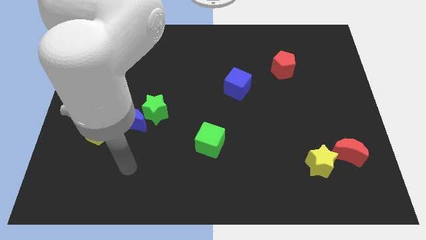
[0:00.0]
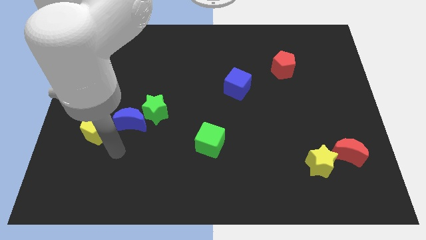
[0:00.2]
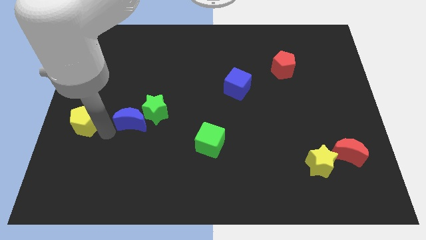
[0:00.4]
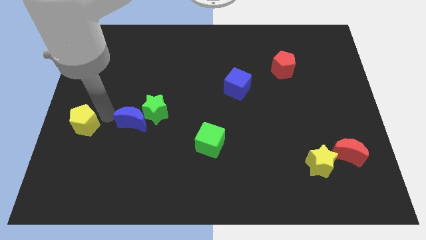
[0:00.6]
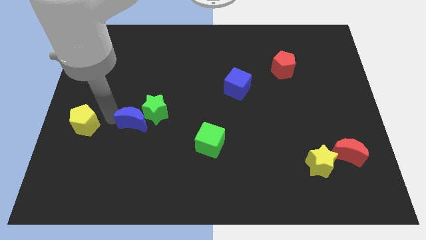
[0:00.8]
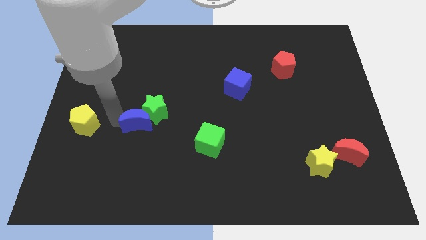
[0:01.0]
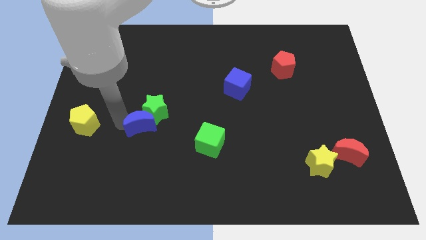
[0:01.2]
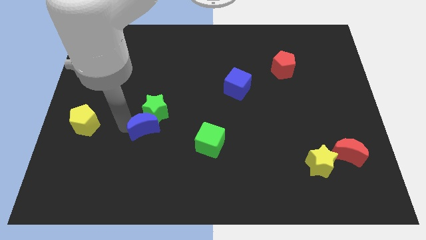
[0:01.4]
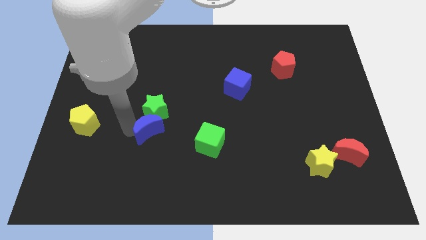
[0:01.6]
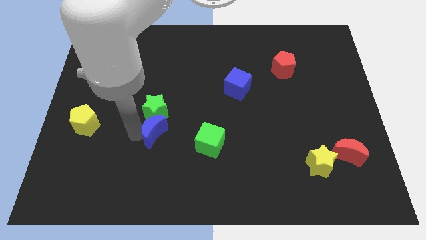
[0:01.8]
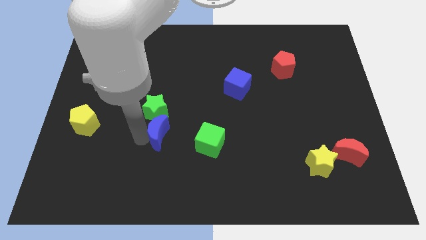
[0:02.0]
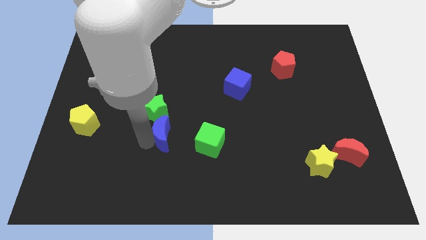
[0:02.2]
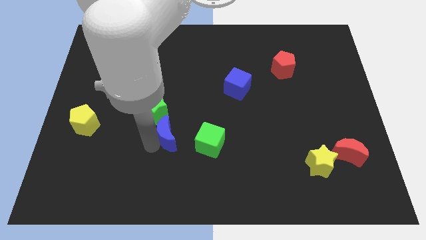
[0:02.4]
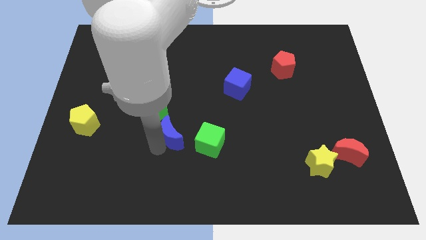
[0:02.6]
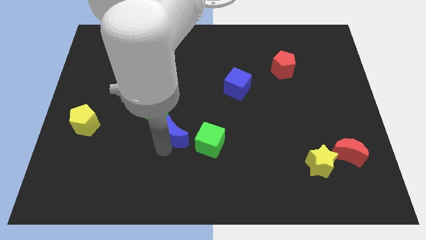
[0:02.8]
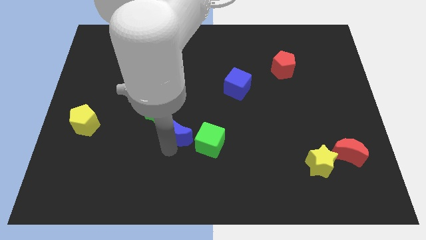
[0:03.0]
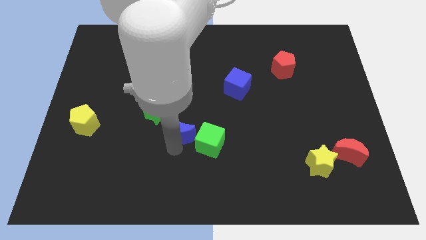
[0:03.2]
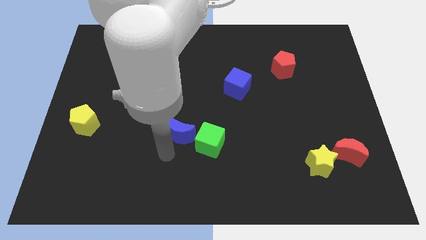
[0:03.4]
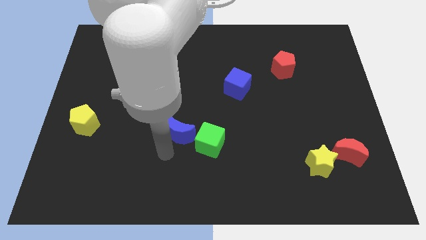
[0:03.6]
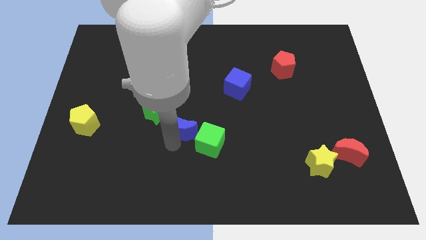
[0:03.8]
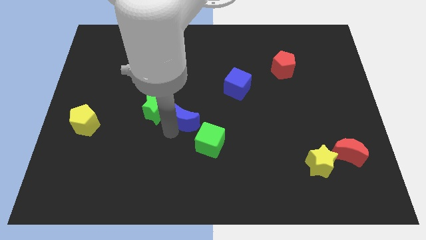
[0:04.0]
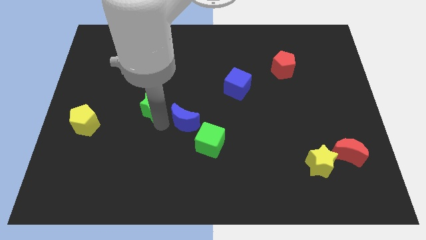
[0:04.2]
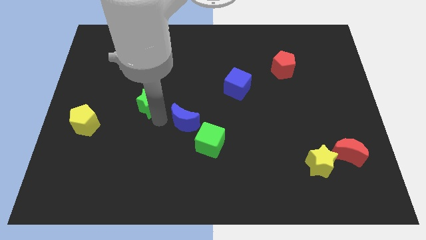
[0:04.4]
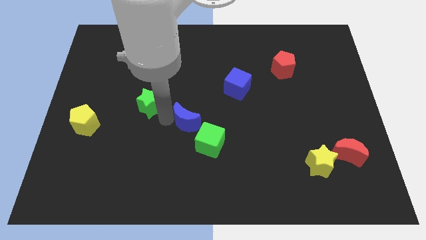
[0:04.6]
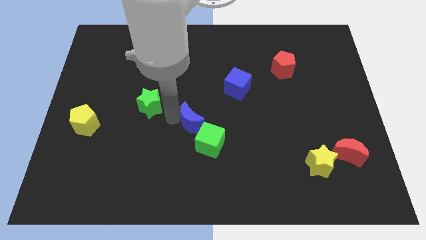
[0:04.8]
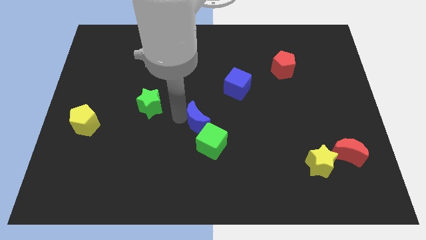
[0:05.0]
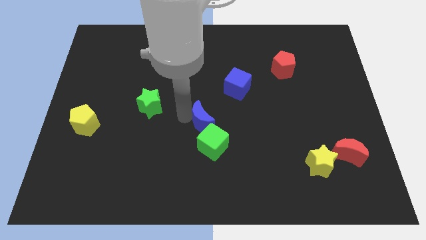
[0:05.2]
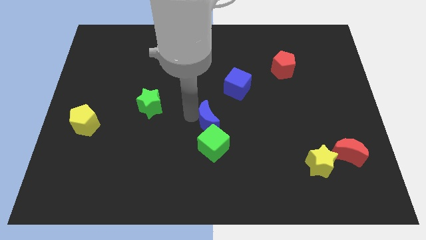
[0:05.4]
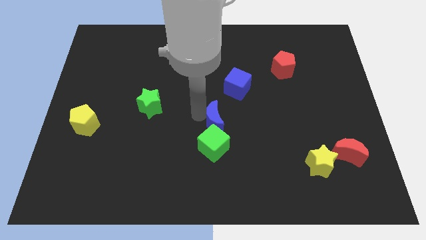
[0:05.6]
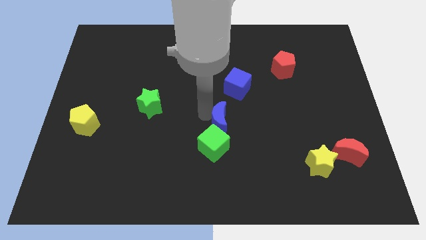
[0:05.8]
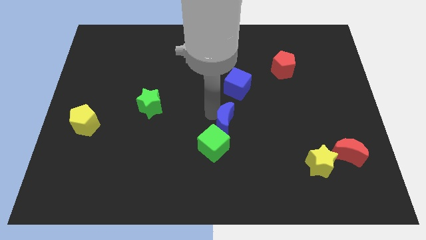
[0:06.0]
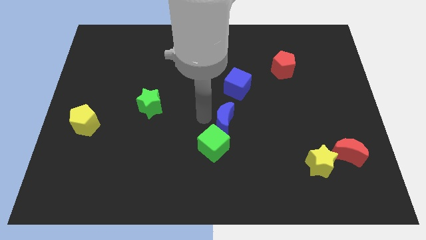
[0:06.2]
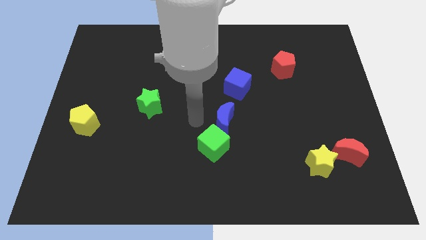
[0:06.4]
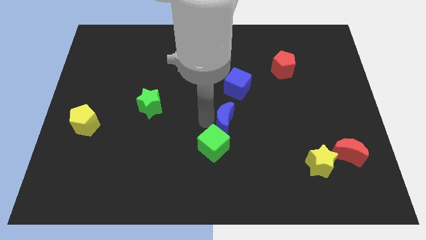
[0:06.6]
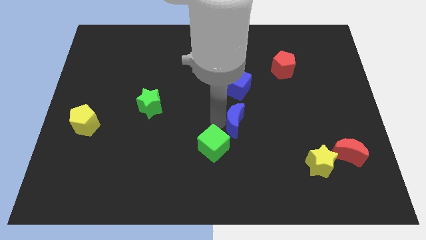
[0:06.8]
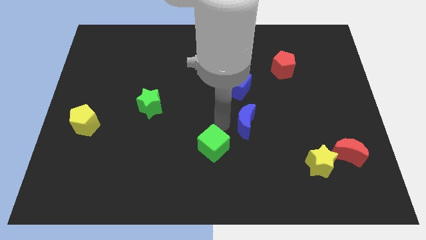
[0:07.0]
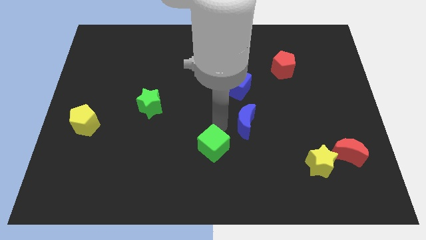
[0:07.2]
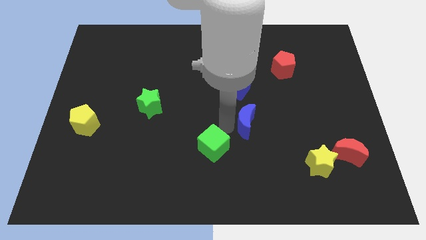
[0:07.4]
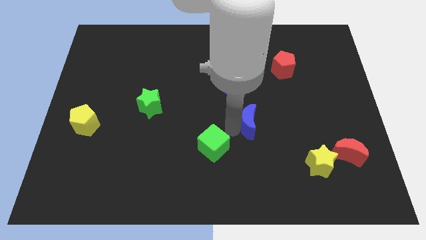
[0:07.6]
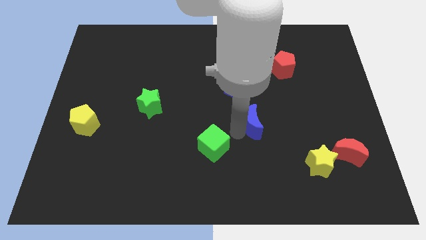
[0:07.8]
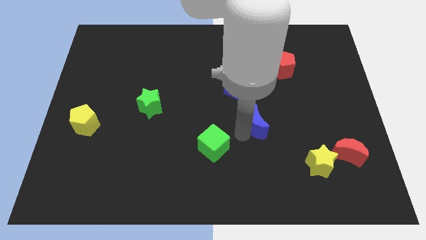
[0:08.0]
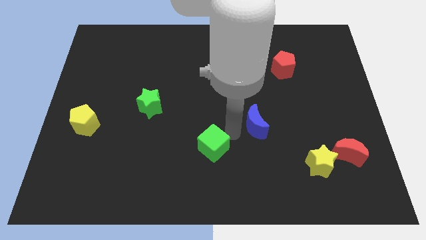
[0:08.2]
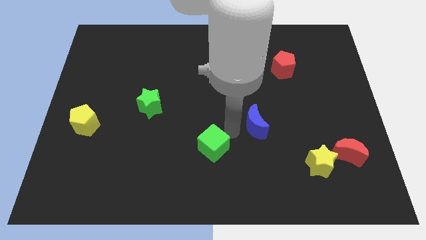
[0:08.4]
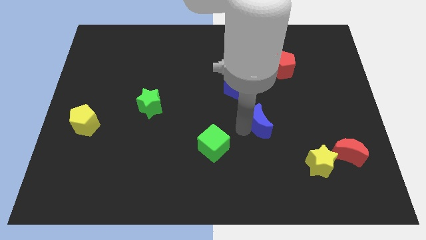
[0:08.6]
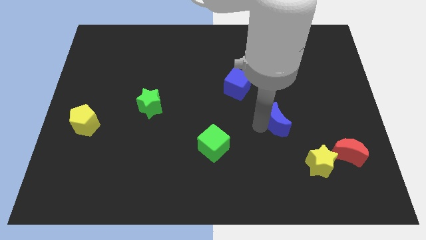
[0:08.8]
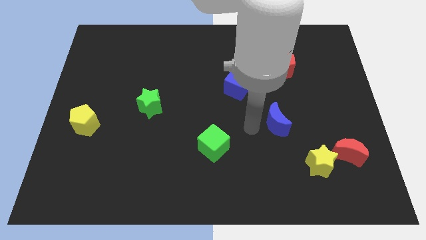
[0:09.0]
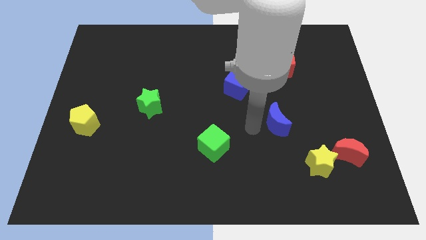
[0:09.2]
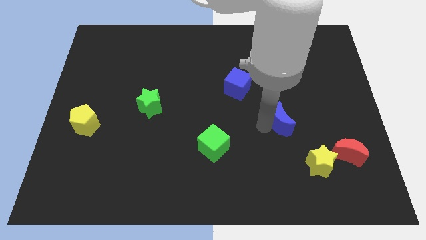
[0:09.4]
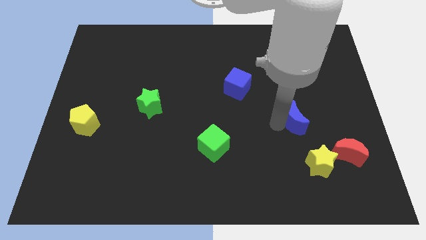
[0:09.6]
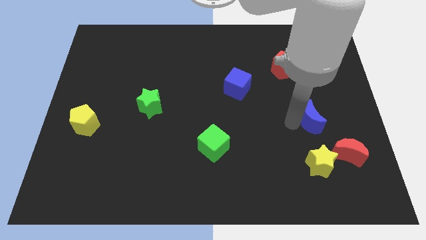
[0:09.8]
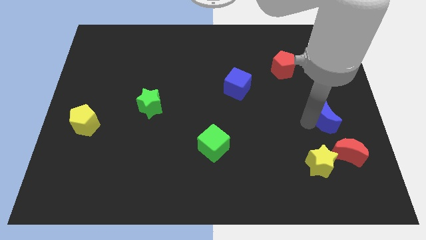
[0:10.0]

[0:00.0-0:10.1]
move the blue moon to the top side of the red moon

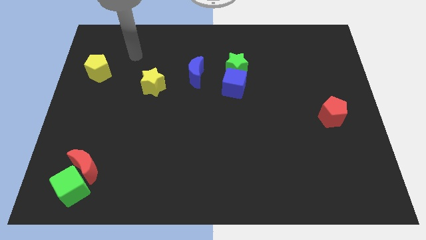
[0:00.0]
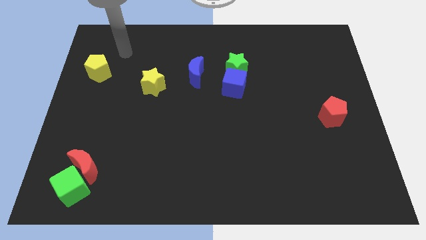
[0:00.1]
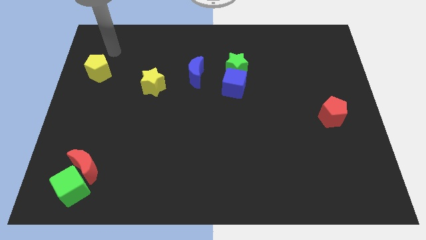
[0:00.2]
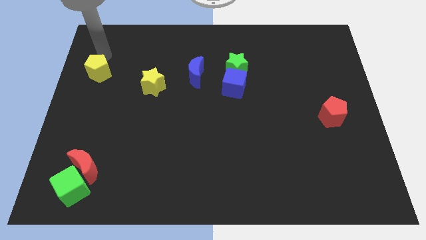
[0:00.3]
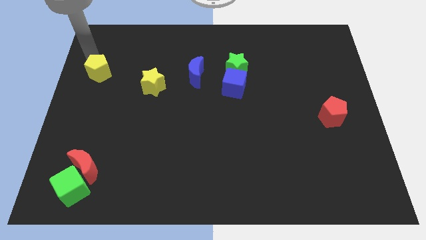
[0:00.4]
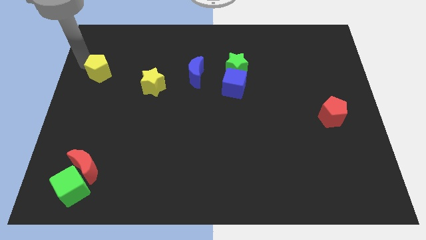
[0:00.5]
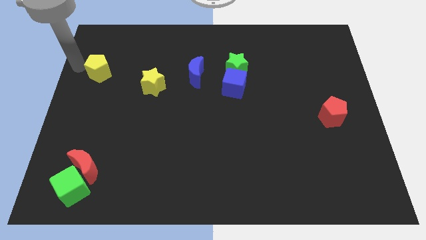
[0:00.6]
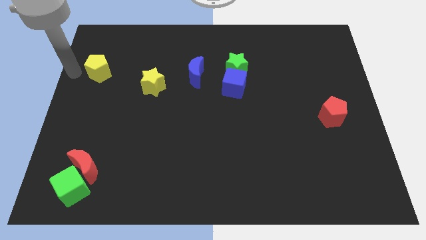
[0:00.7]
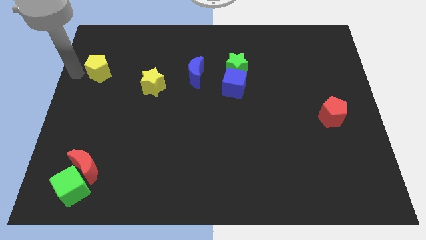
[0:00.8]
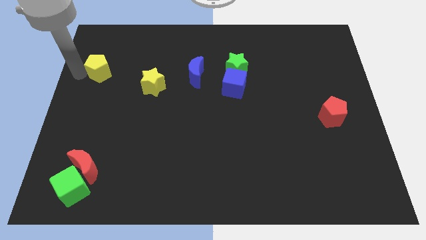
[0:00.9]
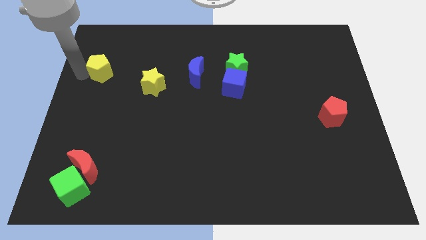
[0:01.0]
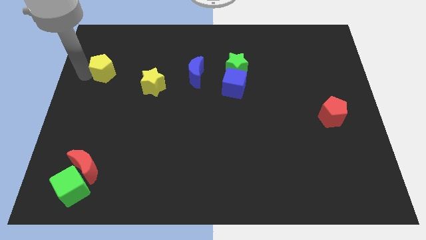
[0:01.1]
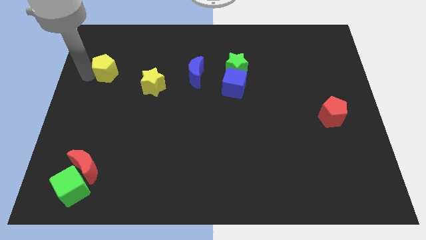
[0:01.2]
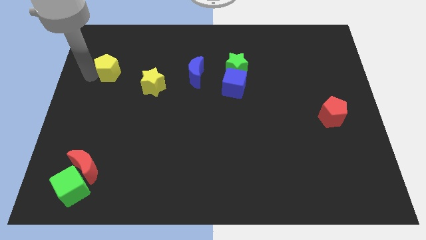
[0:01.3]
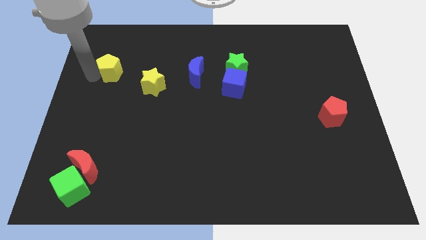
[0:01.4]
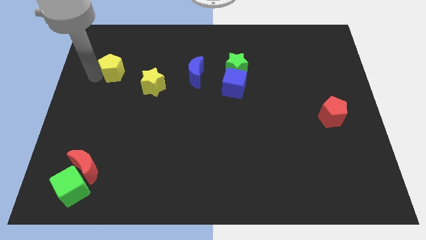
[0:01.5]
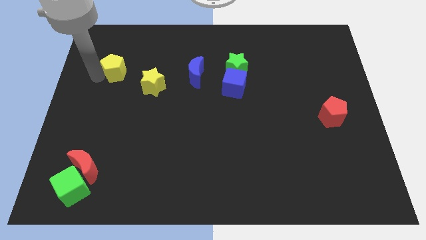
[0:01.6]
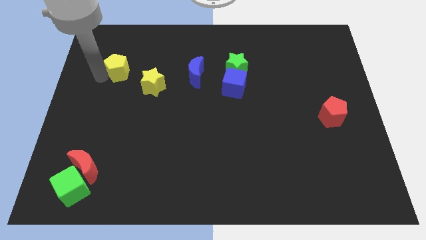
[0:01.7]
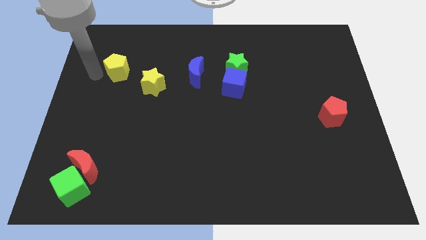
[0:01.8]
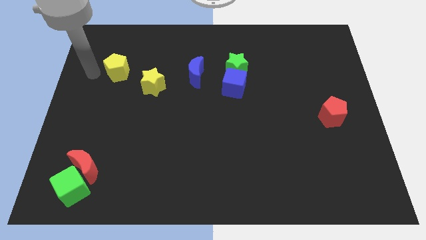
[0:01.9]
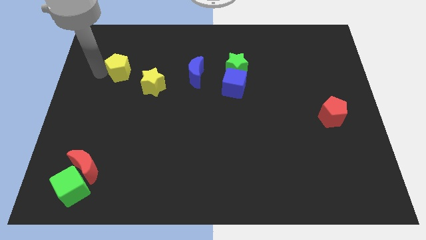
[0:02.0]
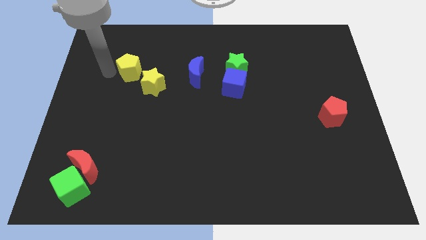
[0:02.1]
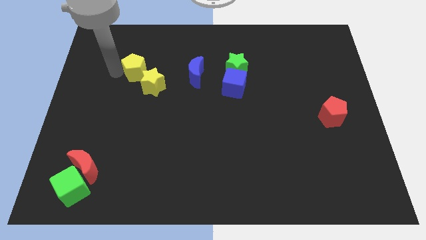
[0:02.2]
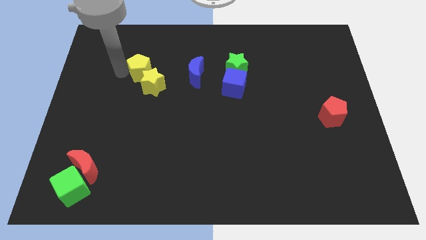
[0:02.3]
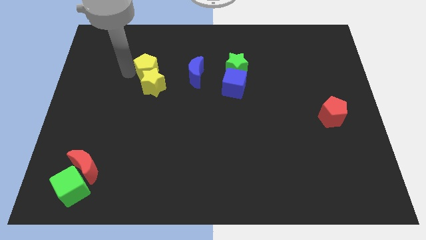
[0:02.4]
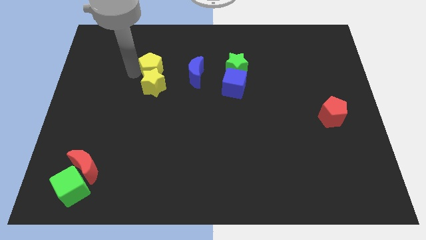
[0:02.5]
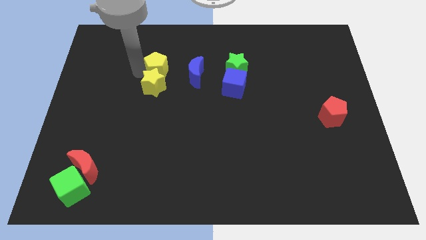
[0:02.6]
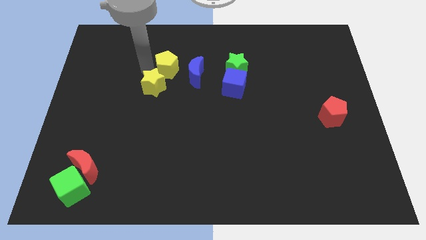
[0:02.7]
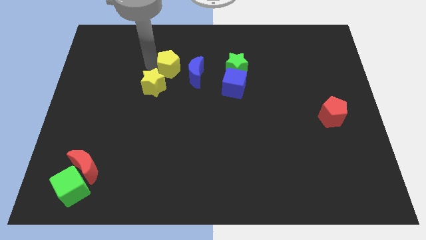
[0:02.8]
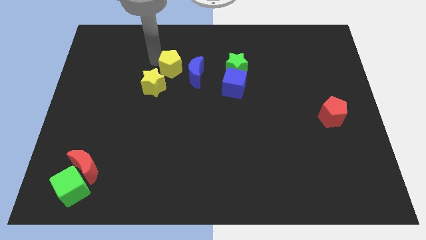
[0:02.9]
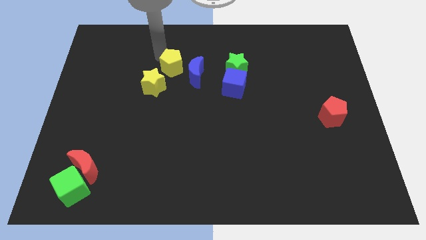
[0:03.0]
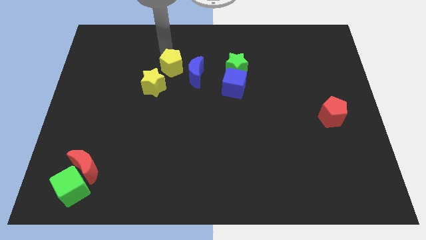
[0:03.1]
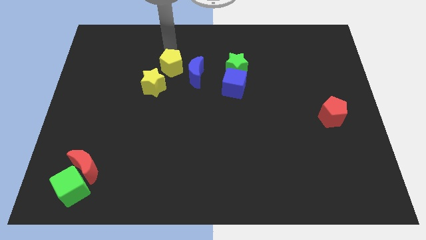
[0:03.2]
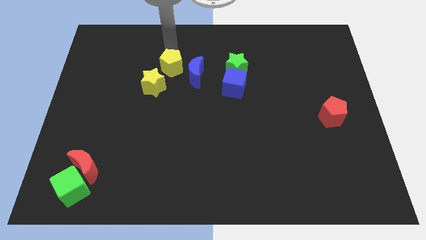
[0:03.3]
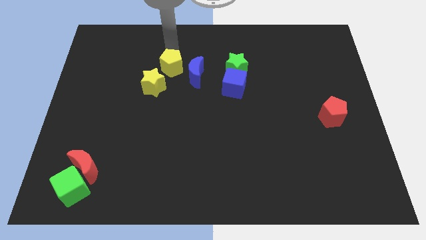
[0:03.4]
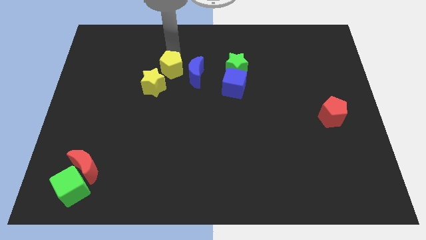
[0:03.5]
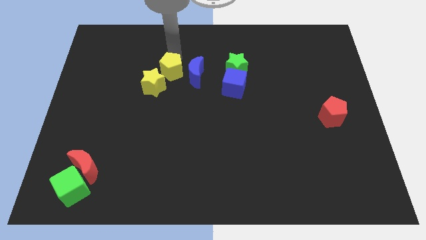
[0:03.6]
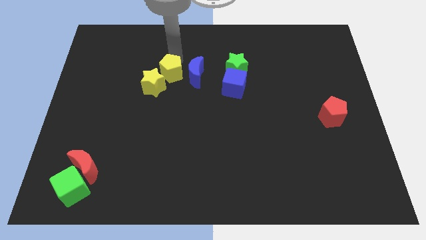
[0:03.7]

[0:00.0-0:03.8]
put the yellow pentagon diagonally down and to the left of the blue moon
